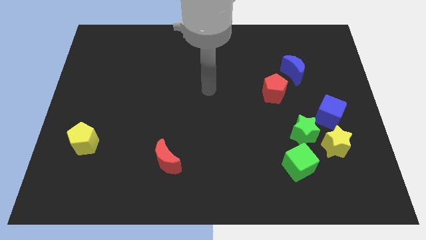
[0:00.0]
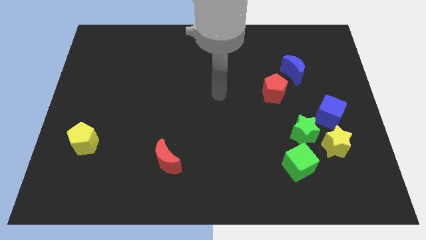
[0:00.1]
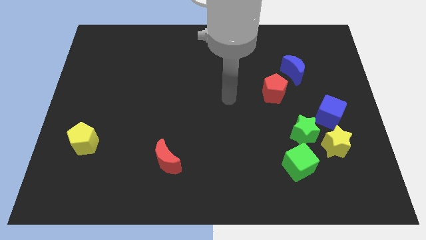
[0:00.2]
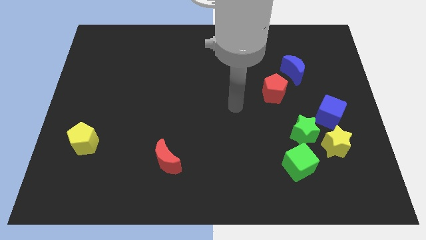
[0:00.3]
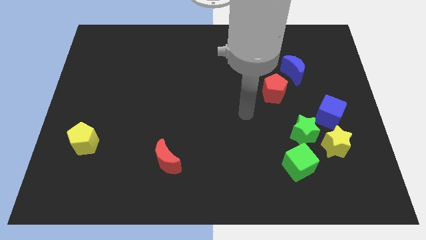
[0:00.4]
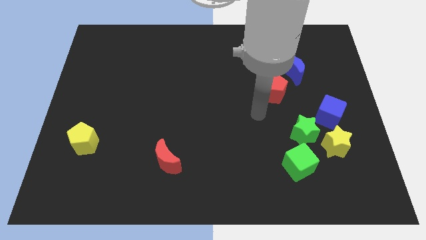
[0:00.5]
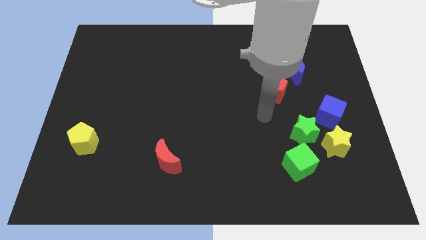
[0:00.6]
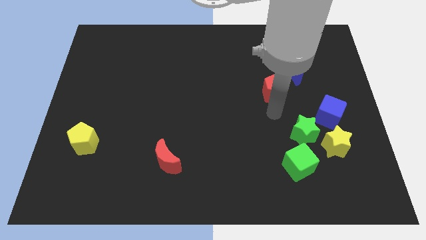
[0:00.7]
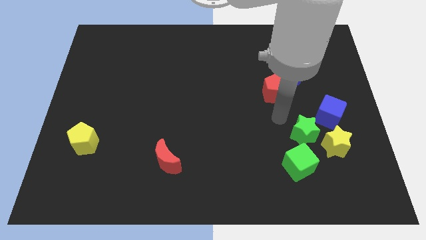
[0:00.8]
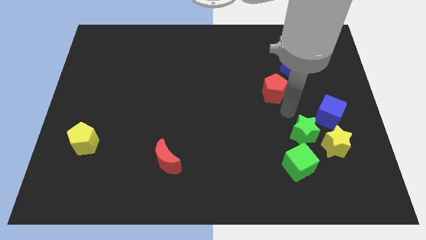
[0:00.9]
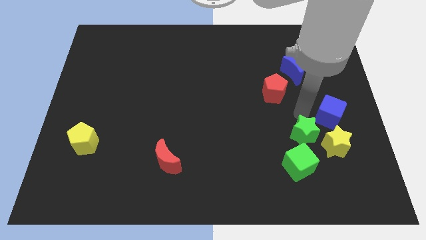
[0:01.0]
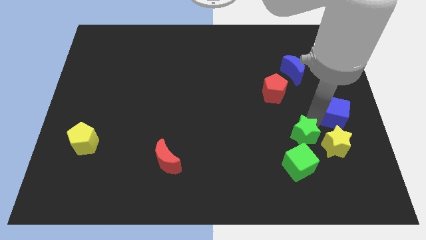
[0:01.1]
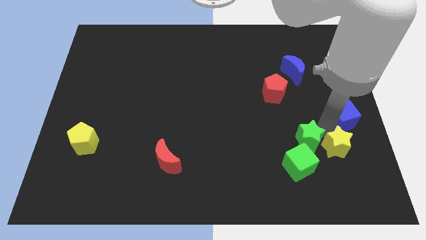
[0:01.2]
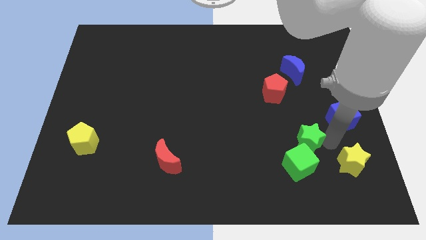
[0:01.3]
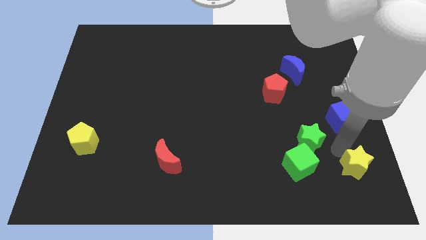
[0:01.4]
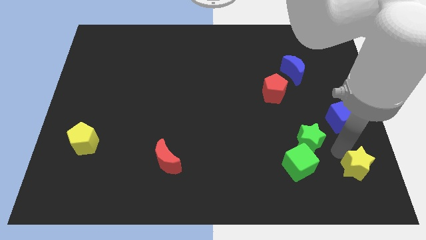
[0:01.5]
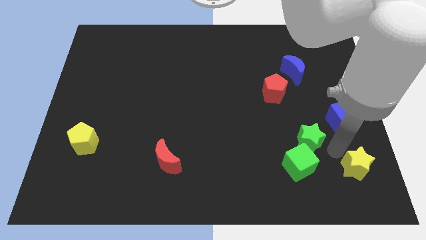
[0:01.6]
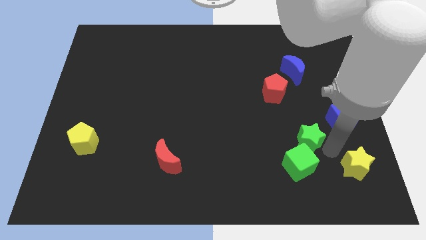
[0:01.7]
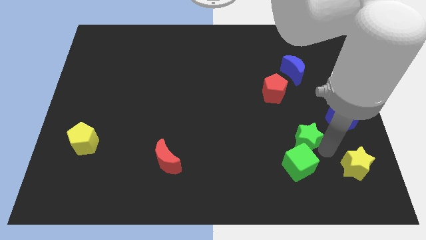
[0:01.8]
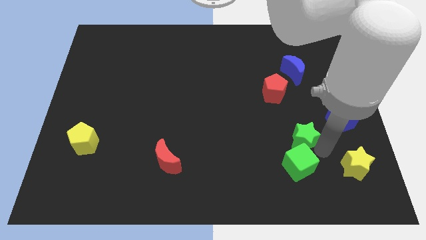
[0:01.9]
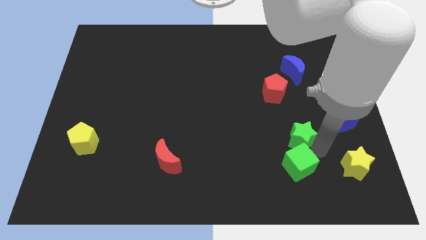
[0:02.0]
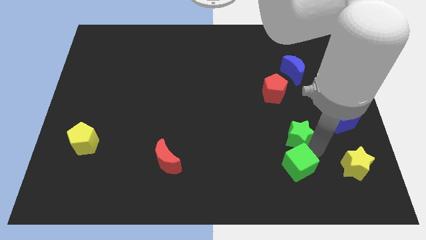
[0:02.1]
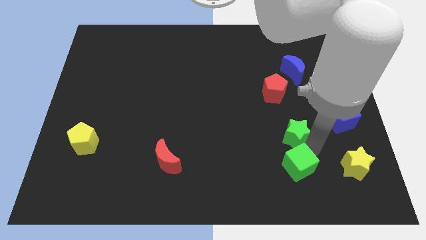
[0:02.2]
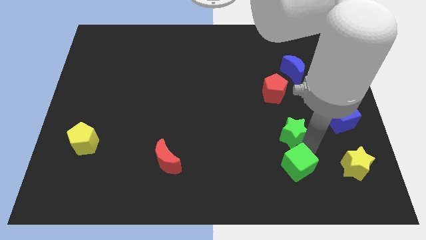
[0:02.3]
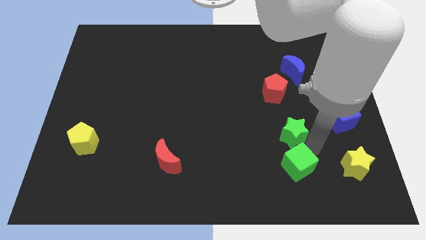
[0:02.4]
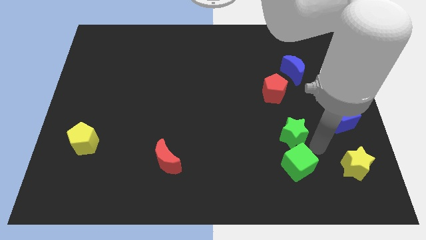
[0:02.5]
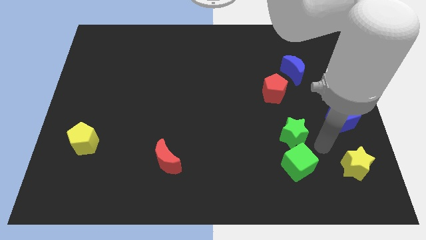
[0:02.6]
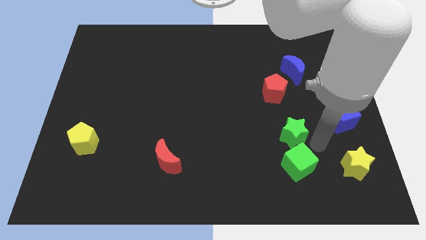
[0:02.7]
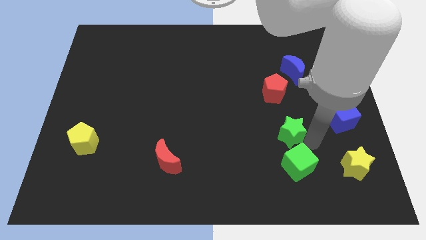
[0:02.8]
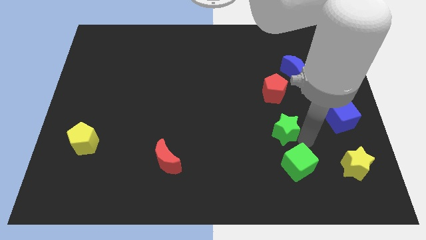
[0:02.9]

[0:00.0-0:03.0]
move the green star away from the yellow star, blue cube, and green cube

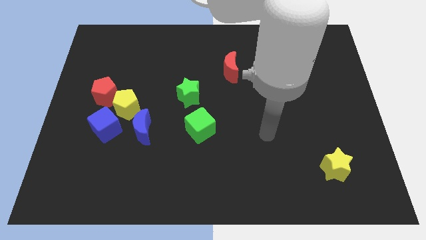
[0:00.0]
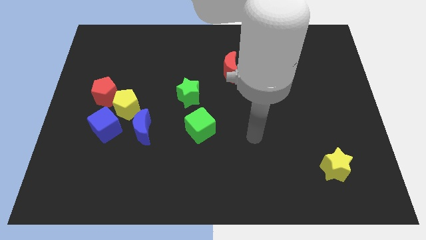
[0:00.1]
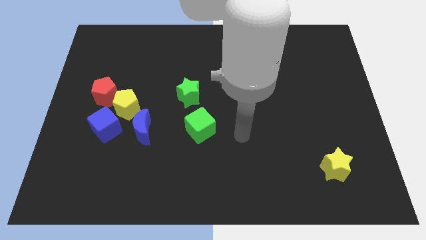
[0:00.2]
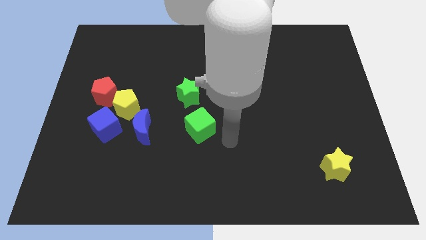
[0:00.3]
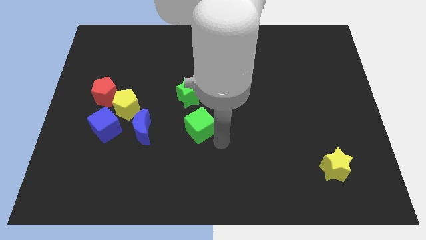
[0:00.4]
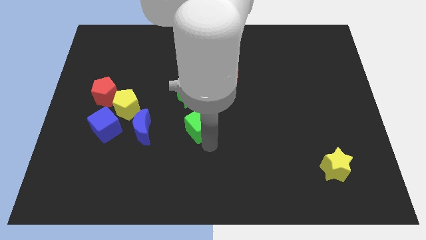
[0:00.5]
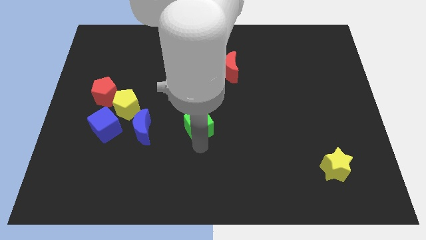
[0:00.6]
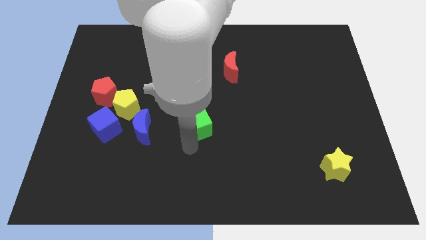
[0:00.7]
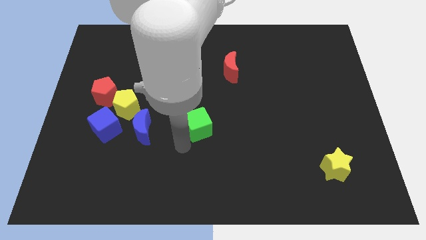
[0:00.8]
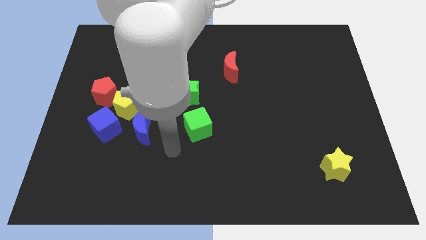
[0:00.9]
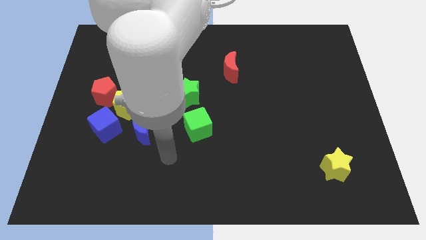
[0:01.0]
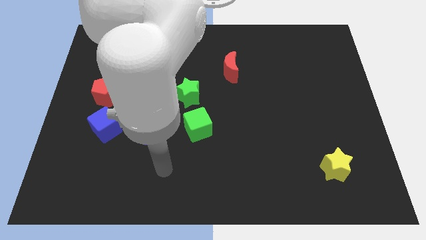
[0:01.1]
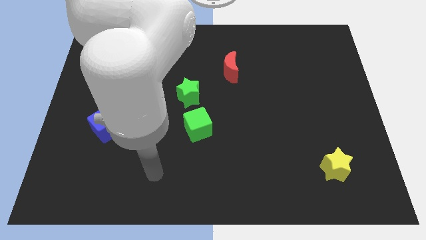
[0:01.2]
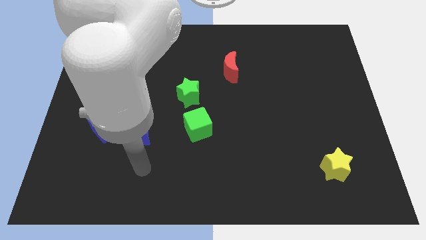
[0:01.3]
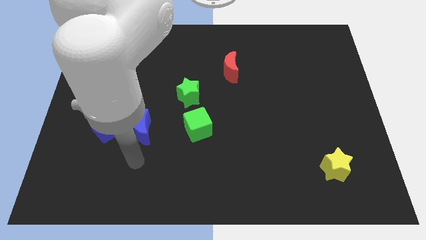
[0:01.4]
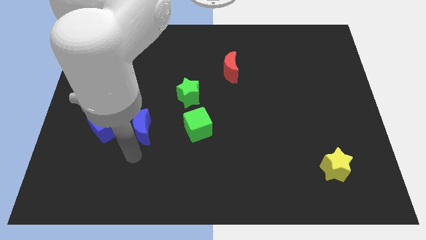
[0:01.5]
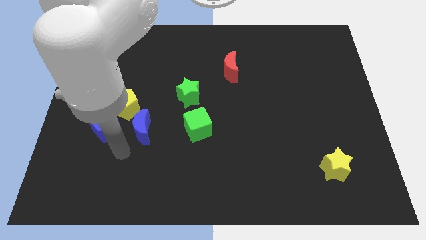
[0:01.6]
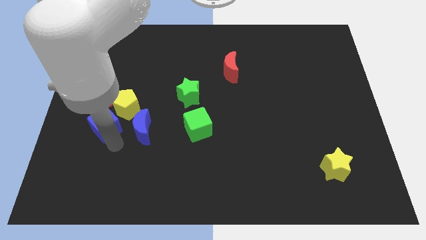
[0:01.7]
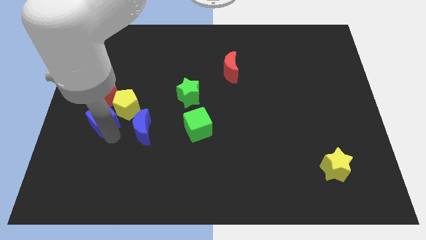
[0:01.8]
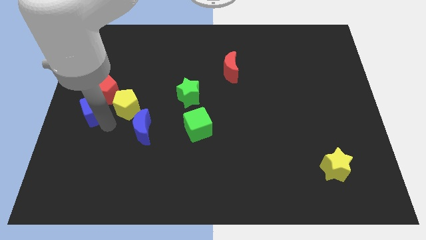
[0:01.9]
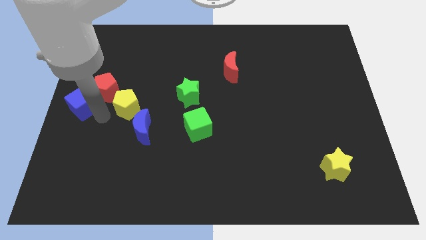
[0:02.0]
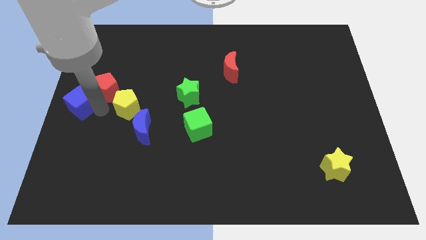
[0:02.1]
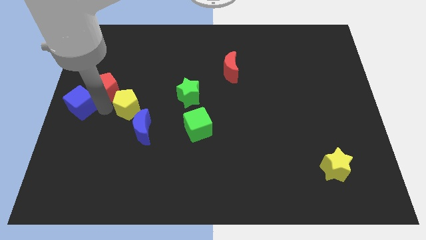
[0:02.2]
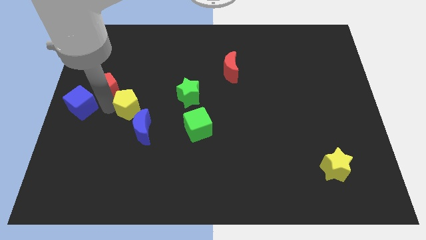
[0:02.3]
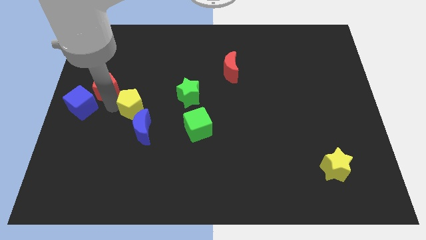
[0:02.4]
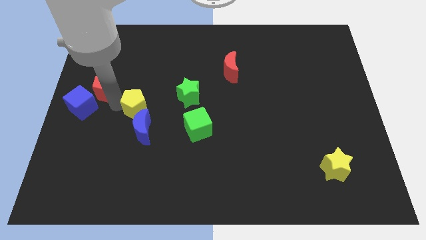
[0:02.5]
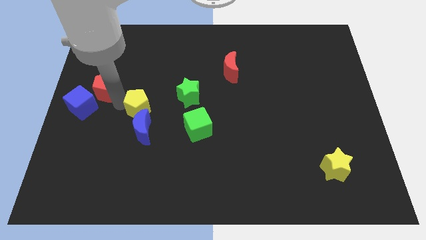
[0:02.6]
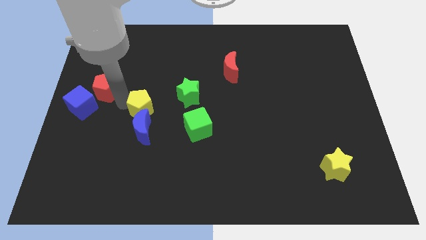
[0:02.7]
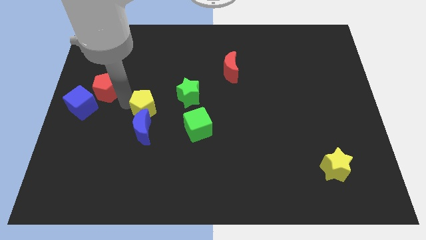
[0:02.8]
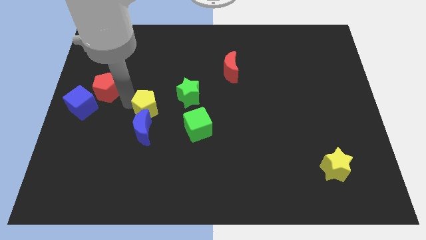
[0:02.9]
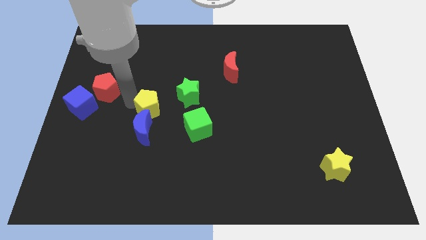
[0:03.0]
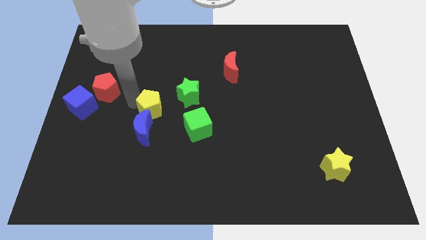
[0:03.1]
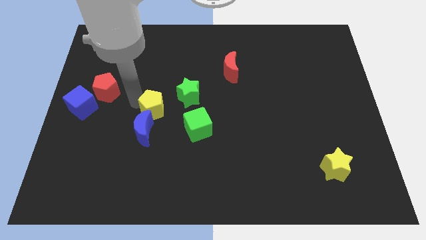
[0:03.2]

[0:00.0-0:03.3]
separate the yellow pentagon from the red pentagon, blue cube, and blue moon

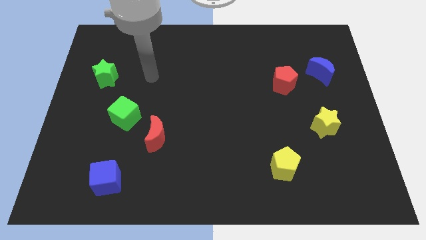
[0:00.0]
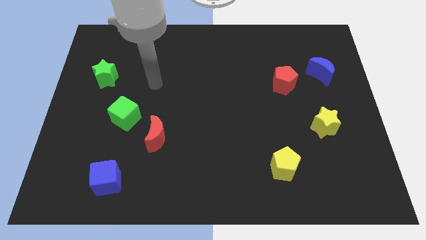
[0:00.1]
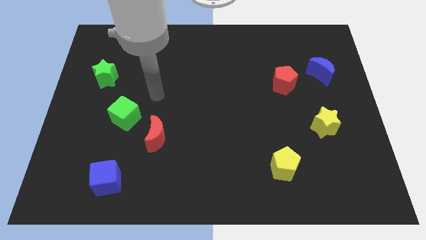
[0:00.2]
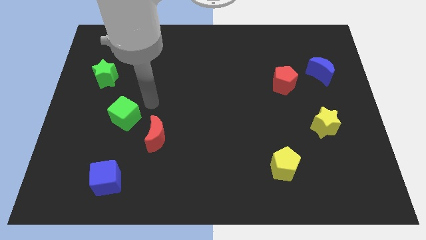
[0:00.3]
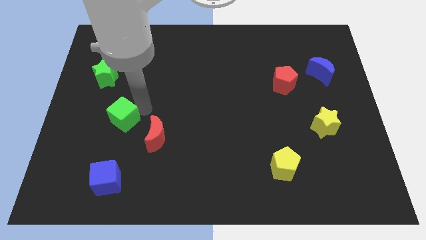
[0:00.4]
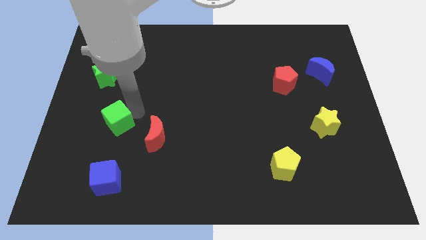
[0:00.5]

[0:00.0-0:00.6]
separate the red moon from the green cube

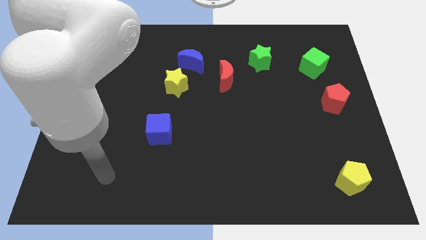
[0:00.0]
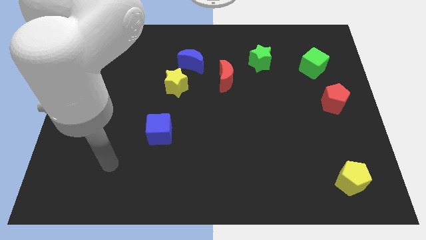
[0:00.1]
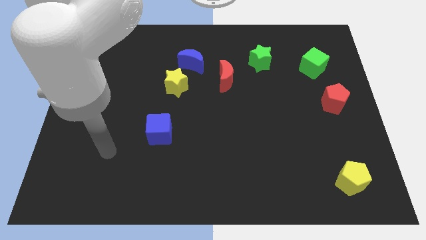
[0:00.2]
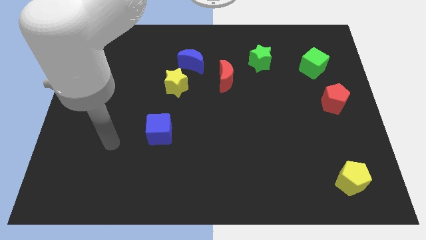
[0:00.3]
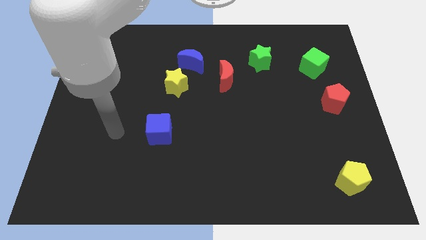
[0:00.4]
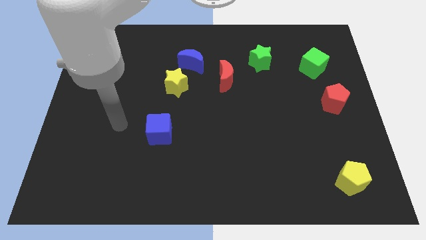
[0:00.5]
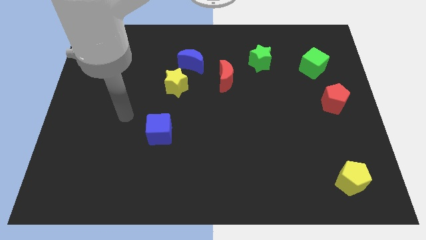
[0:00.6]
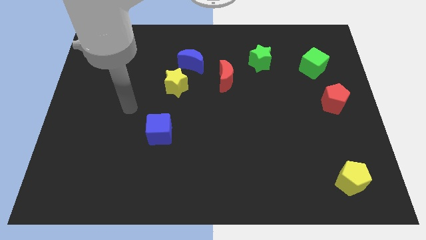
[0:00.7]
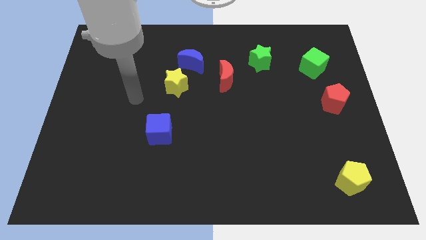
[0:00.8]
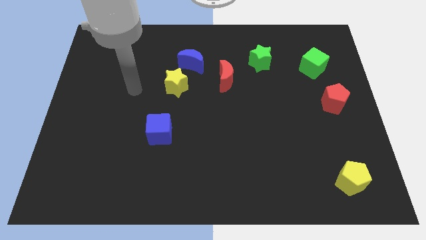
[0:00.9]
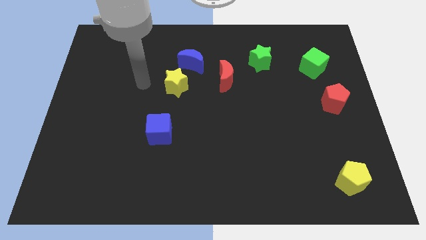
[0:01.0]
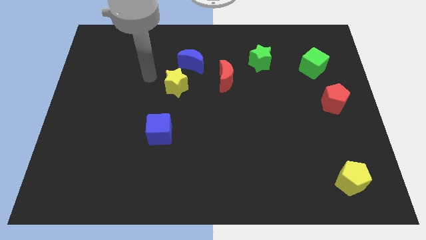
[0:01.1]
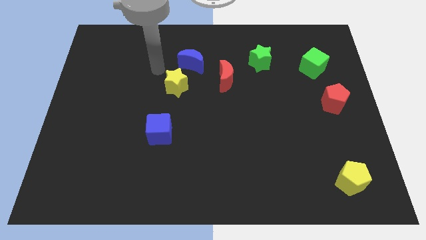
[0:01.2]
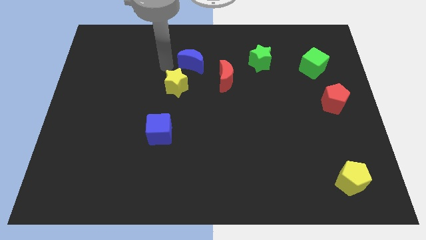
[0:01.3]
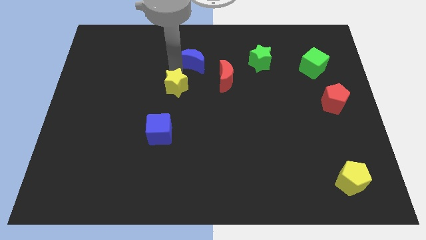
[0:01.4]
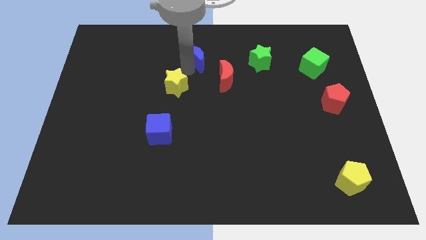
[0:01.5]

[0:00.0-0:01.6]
pull the yellow star apart from the blue moon

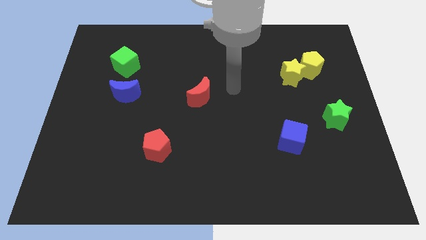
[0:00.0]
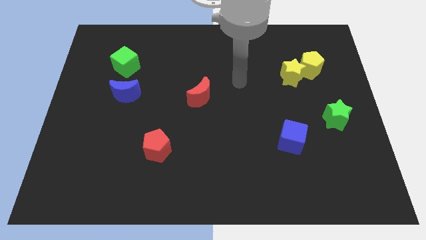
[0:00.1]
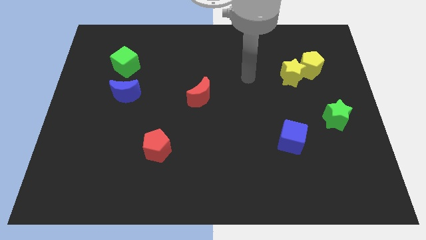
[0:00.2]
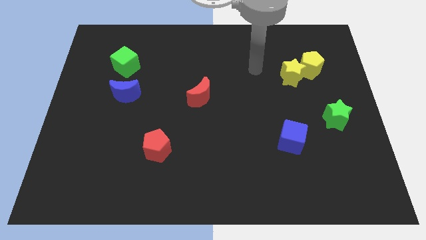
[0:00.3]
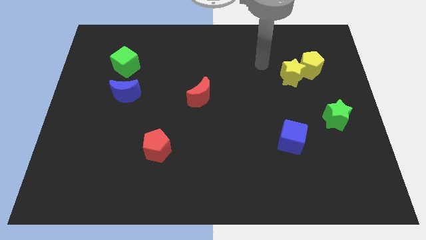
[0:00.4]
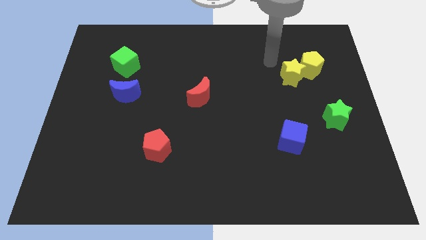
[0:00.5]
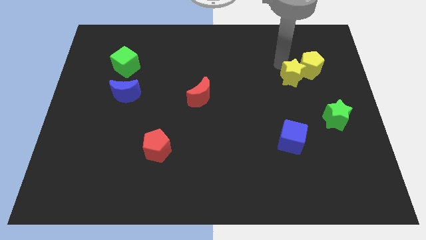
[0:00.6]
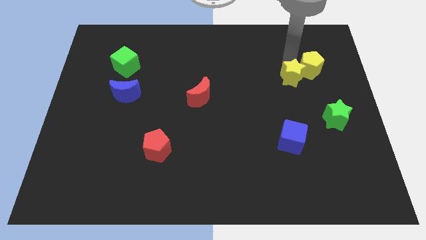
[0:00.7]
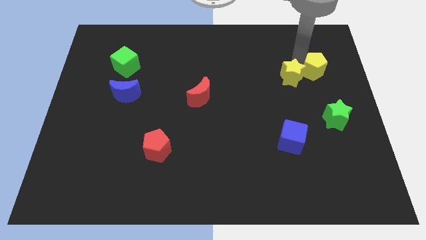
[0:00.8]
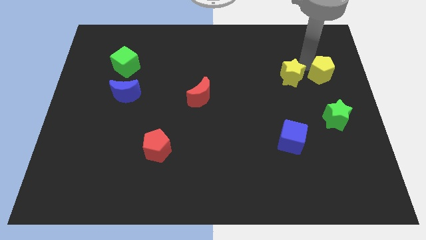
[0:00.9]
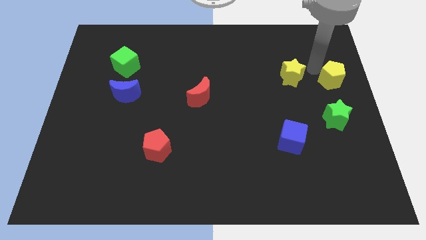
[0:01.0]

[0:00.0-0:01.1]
pull the yellow star apart from the yellow pentagon
